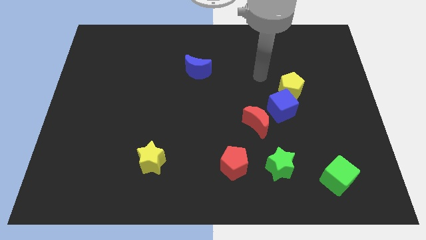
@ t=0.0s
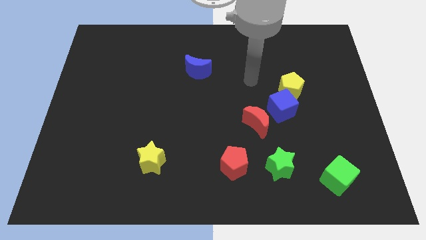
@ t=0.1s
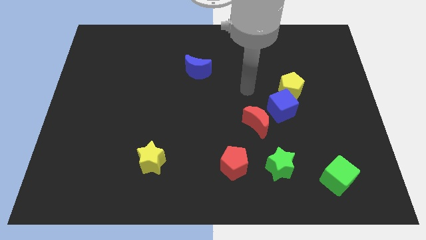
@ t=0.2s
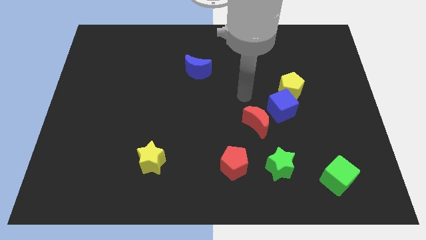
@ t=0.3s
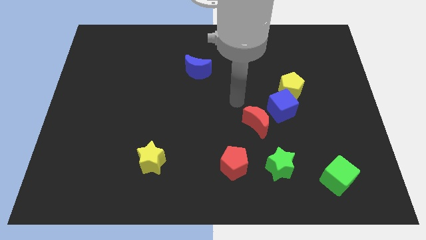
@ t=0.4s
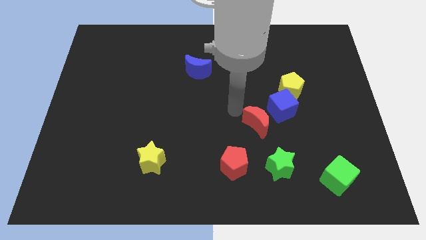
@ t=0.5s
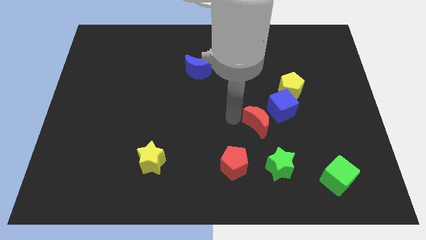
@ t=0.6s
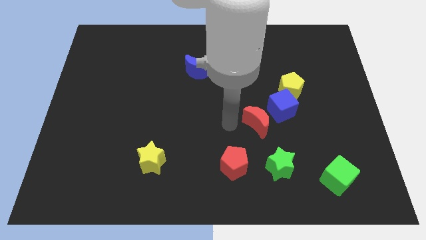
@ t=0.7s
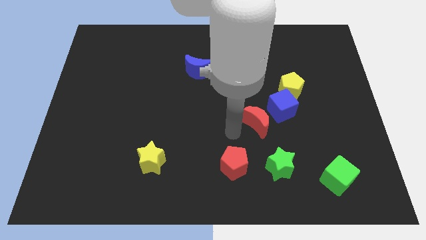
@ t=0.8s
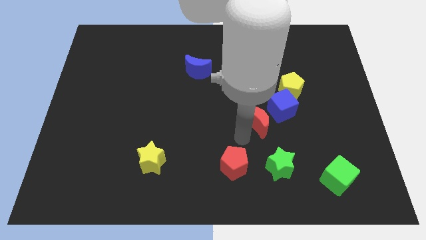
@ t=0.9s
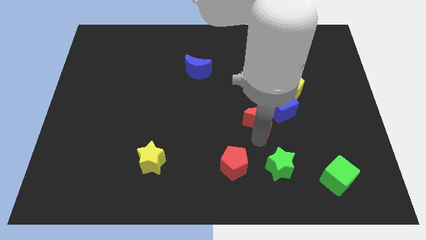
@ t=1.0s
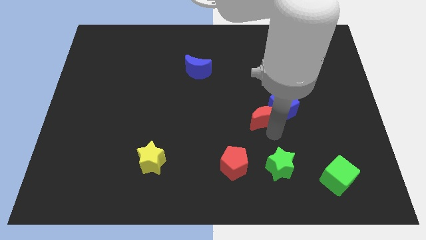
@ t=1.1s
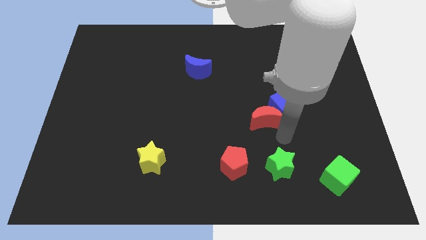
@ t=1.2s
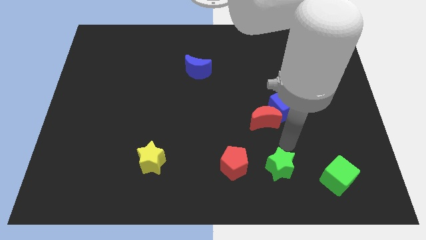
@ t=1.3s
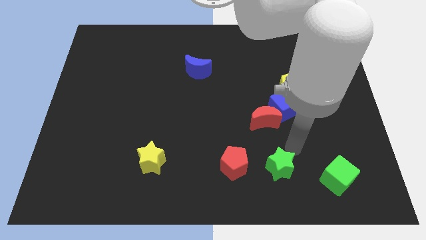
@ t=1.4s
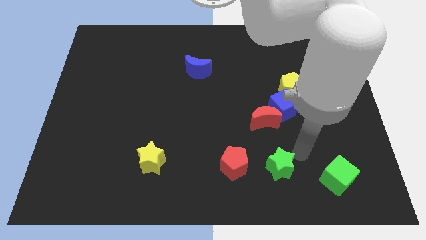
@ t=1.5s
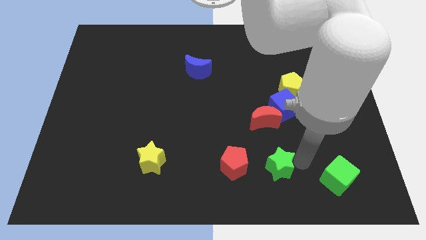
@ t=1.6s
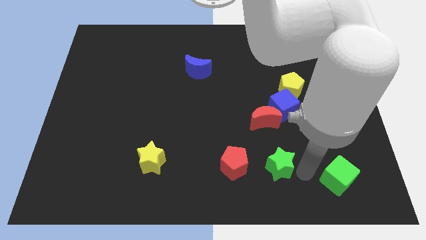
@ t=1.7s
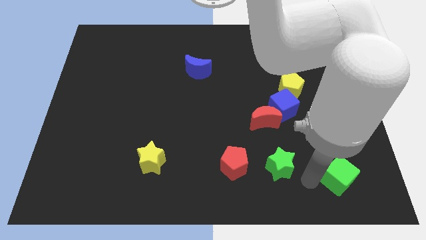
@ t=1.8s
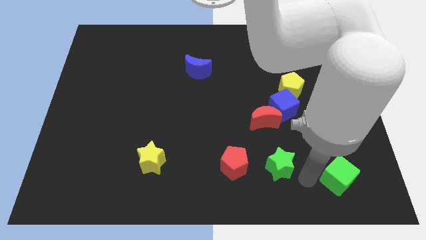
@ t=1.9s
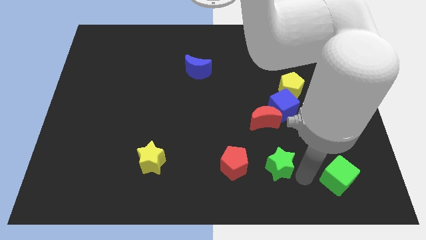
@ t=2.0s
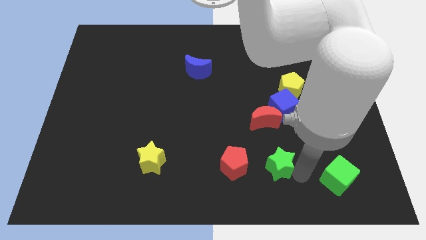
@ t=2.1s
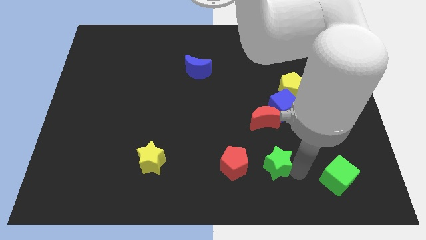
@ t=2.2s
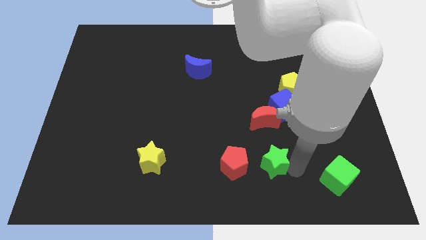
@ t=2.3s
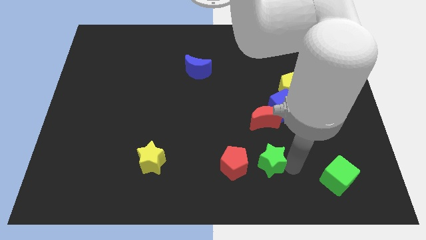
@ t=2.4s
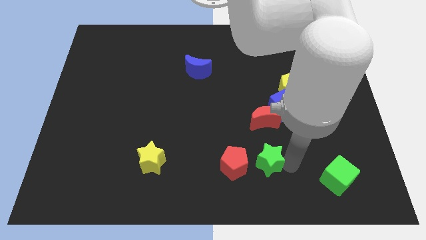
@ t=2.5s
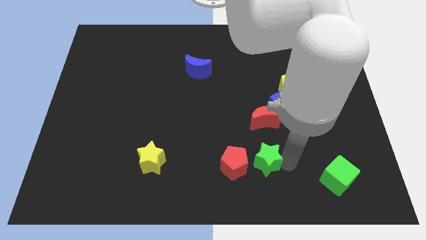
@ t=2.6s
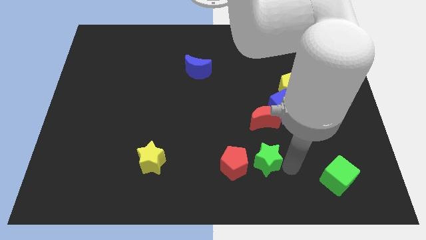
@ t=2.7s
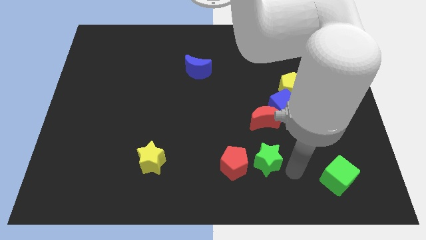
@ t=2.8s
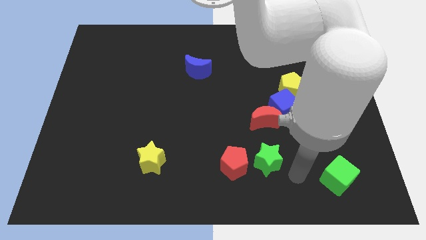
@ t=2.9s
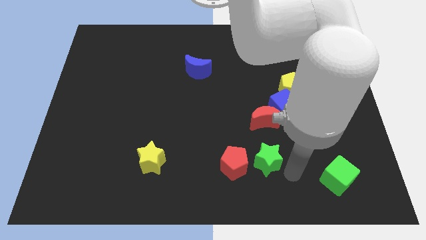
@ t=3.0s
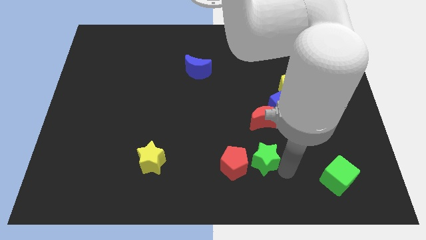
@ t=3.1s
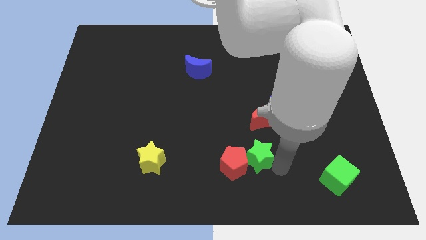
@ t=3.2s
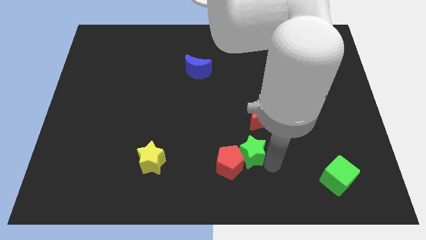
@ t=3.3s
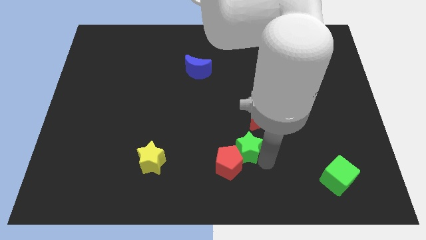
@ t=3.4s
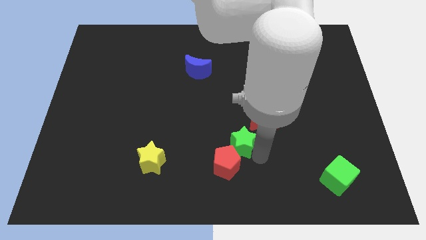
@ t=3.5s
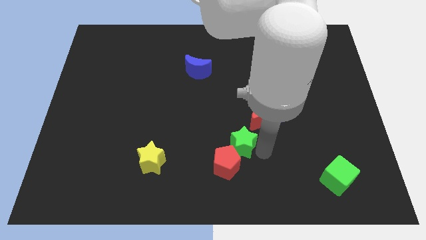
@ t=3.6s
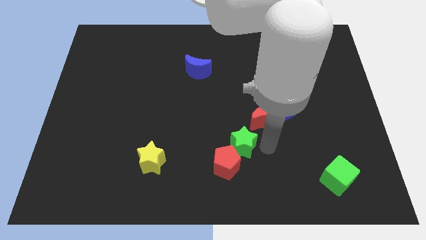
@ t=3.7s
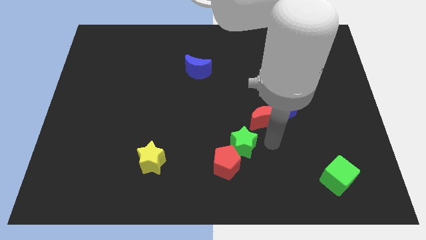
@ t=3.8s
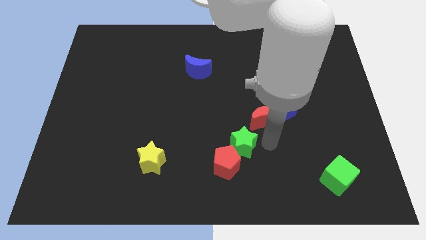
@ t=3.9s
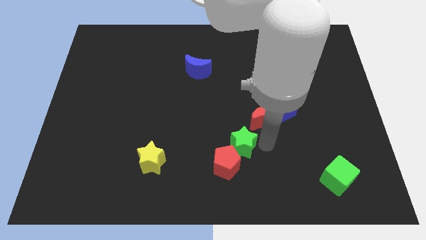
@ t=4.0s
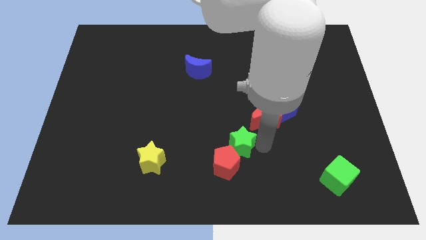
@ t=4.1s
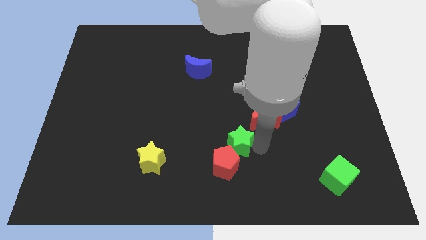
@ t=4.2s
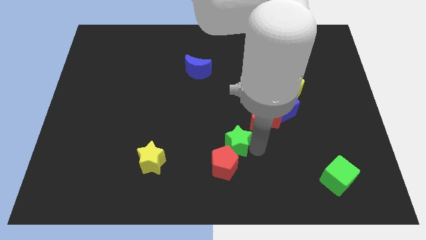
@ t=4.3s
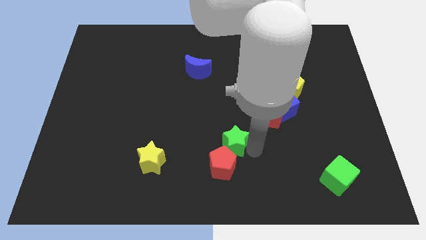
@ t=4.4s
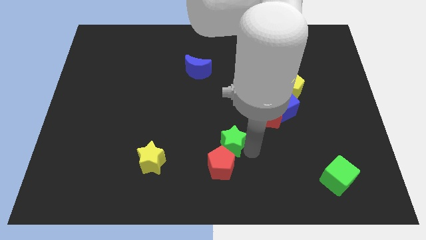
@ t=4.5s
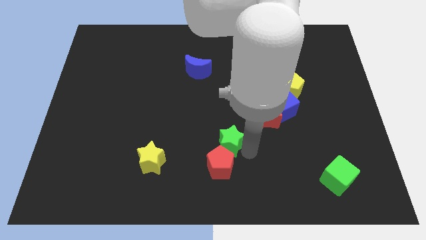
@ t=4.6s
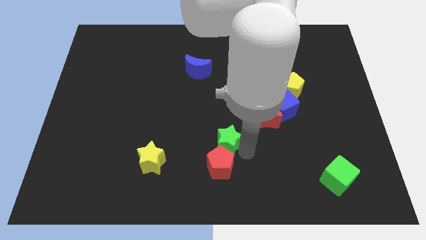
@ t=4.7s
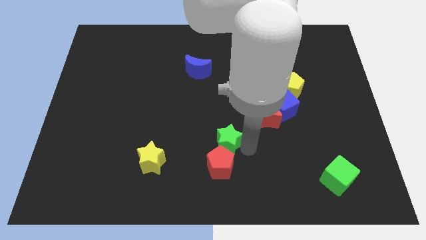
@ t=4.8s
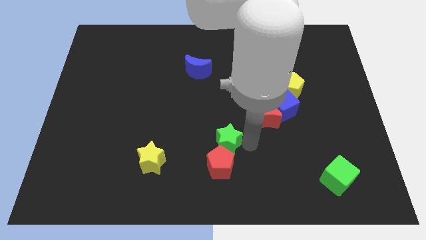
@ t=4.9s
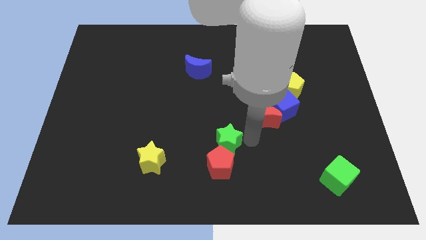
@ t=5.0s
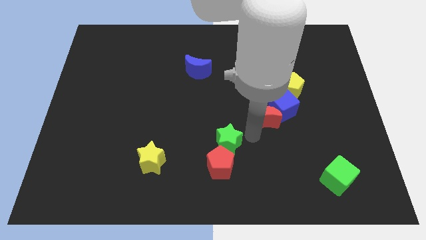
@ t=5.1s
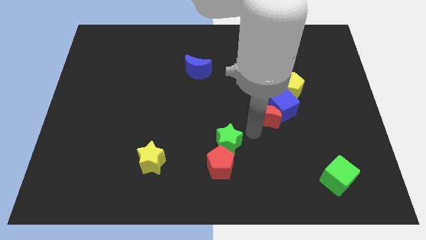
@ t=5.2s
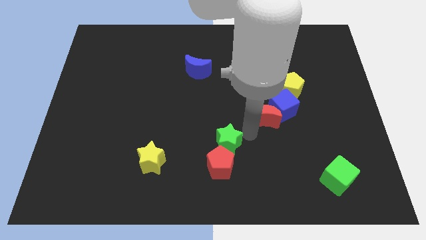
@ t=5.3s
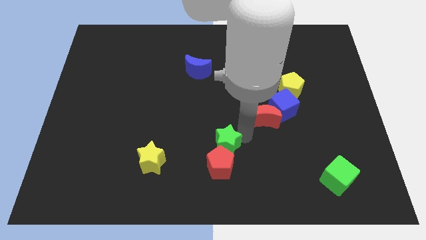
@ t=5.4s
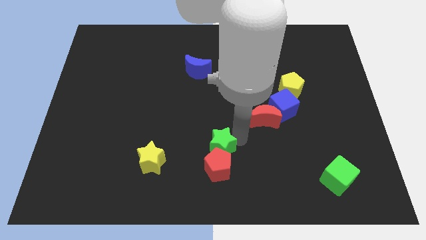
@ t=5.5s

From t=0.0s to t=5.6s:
push the green star right of the yellow star

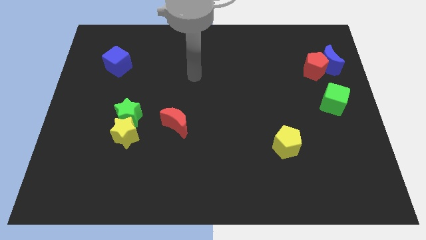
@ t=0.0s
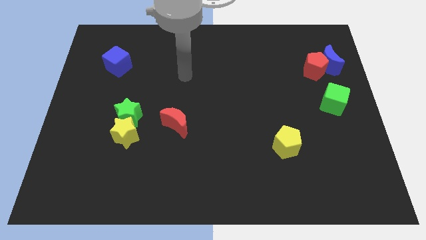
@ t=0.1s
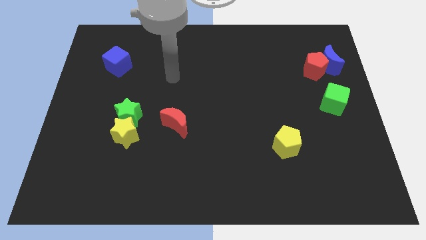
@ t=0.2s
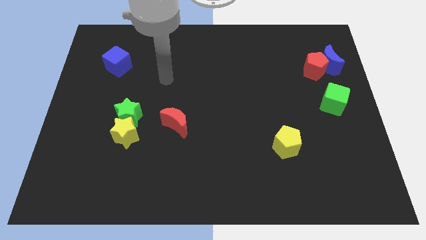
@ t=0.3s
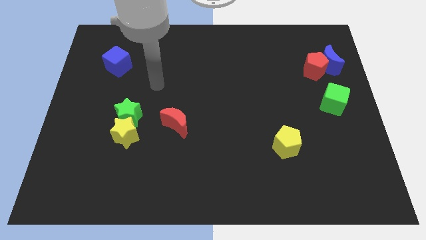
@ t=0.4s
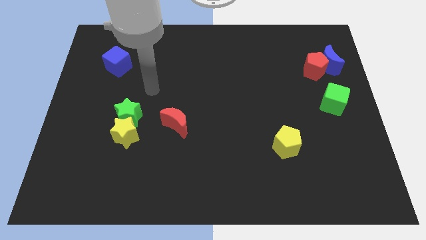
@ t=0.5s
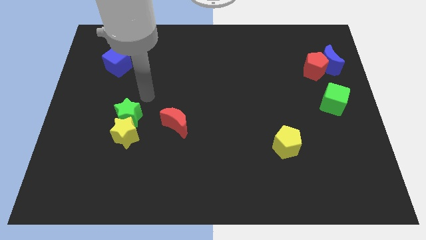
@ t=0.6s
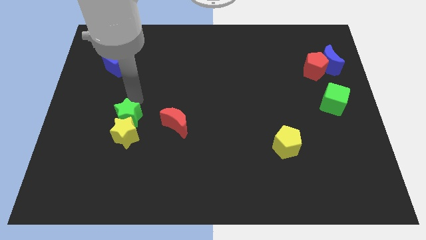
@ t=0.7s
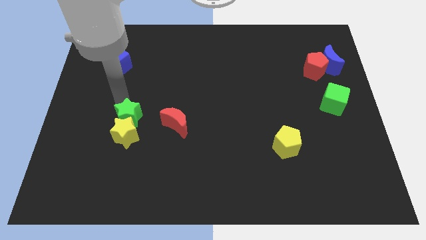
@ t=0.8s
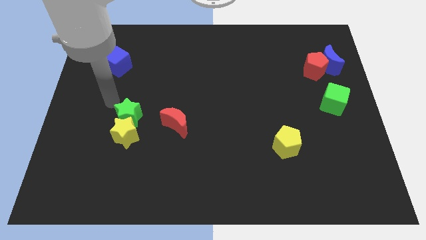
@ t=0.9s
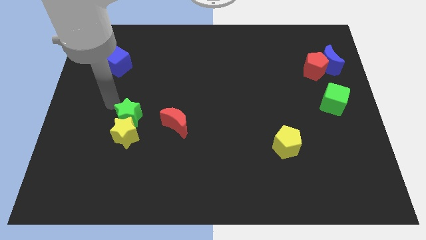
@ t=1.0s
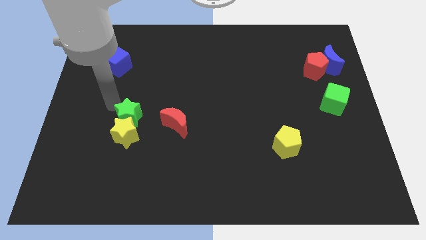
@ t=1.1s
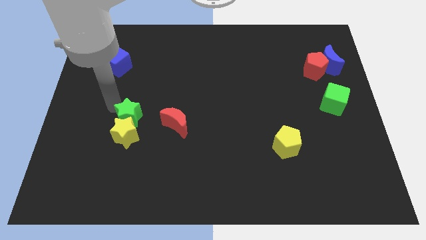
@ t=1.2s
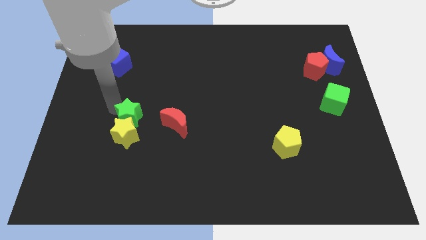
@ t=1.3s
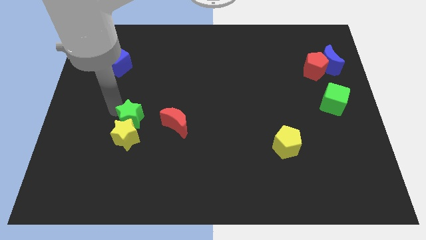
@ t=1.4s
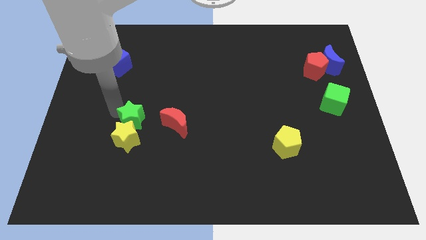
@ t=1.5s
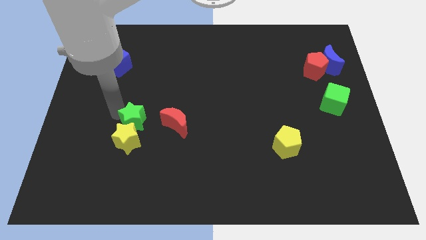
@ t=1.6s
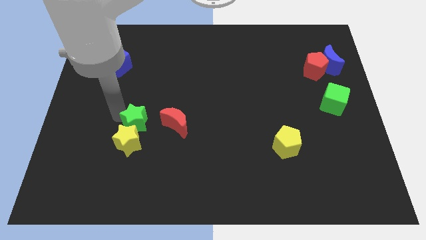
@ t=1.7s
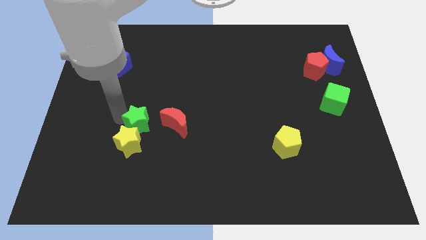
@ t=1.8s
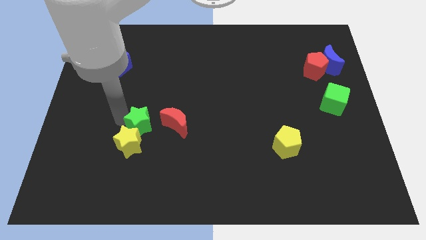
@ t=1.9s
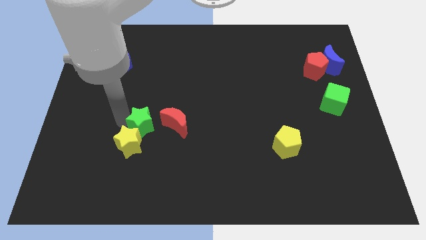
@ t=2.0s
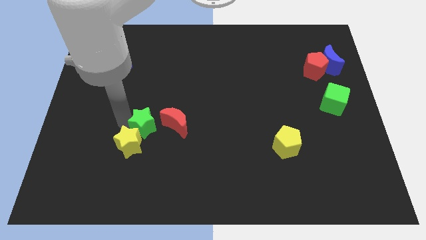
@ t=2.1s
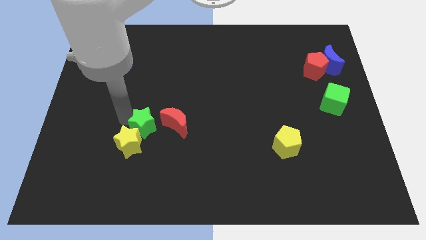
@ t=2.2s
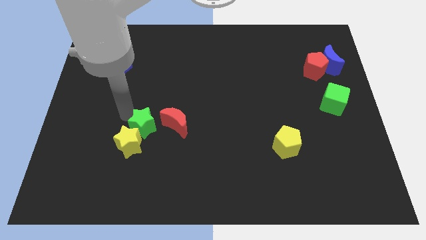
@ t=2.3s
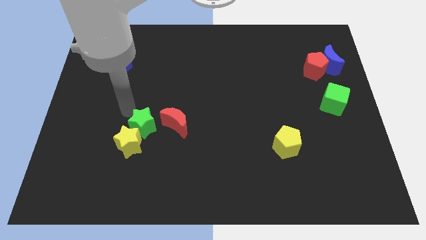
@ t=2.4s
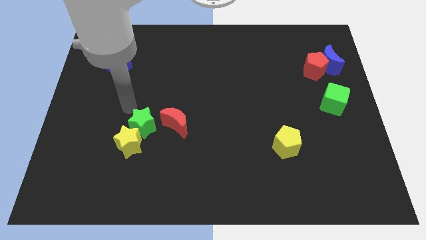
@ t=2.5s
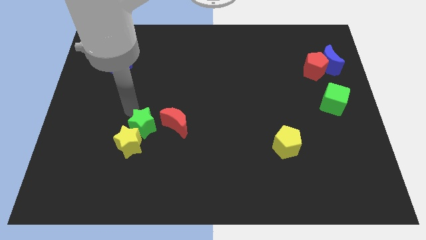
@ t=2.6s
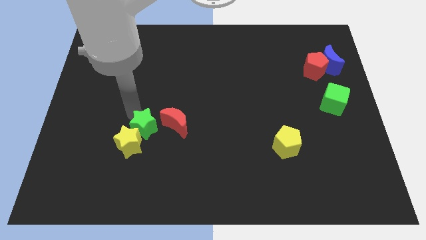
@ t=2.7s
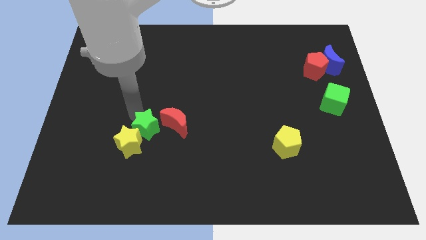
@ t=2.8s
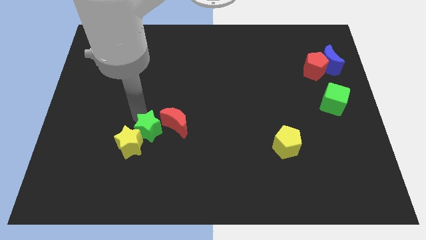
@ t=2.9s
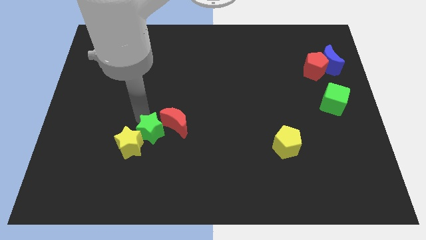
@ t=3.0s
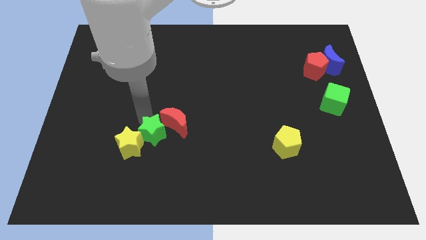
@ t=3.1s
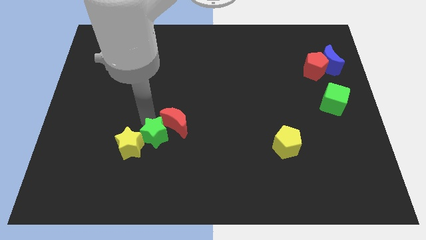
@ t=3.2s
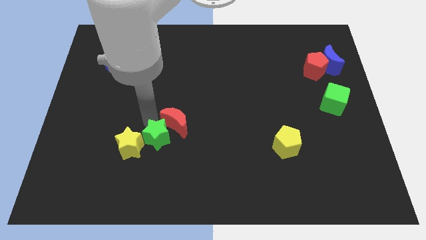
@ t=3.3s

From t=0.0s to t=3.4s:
push the green star to the bottom of the red moon
